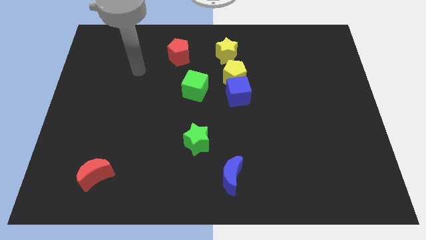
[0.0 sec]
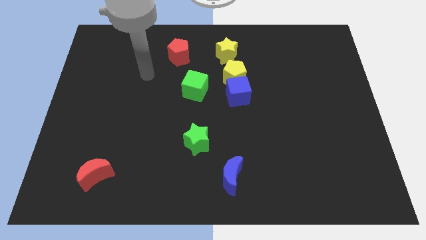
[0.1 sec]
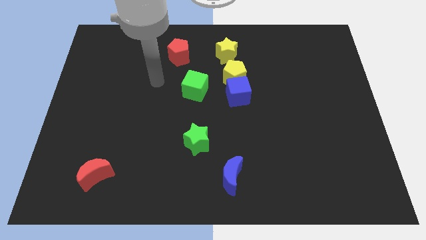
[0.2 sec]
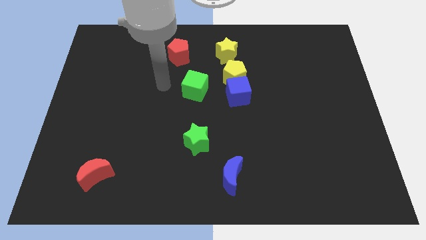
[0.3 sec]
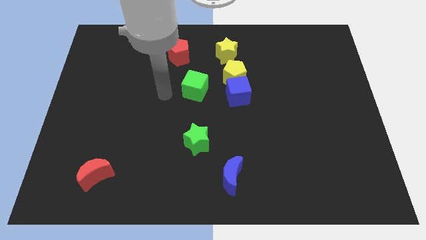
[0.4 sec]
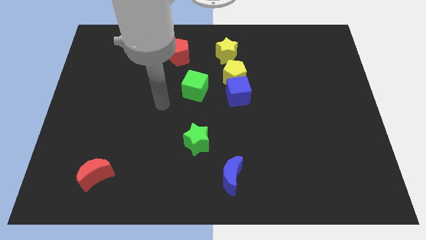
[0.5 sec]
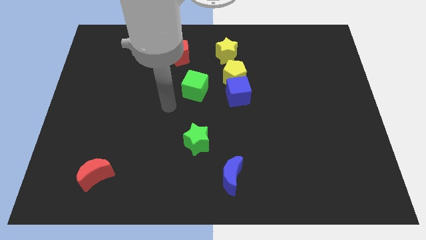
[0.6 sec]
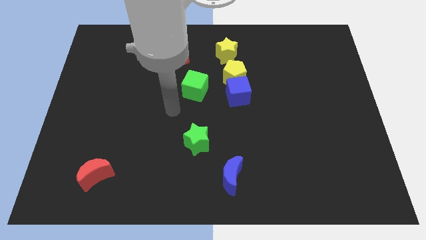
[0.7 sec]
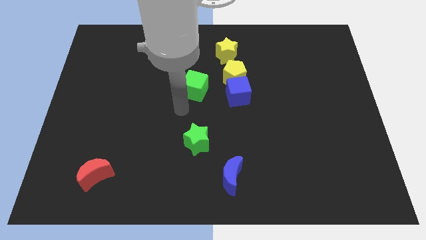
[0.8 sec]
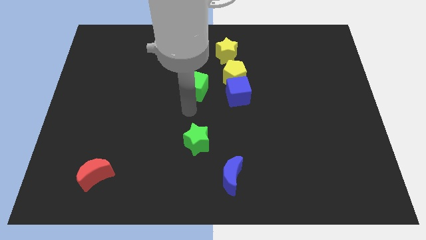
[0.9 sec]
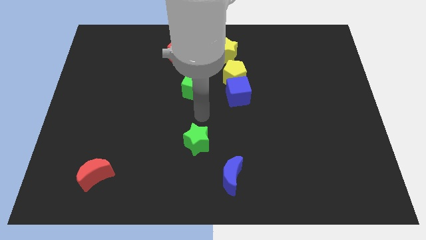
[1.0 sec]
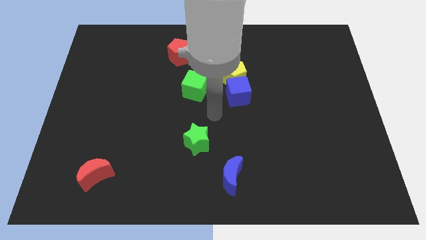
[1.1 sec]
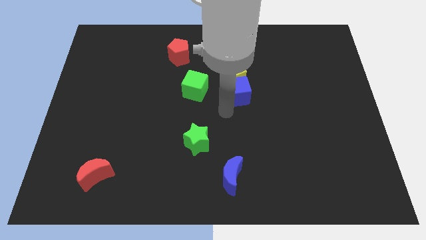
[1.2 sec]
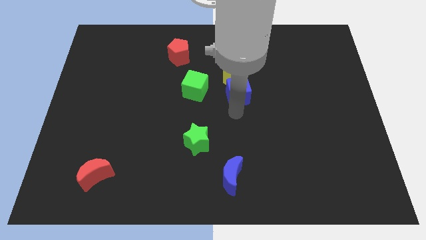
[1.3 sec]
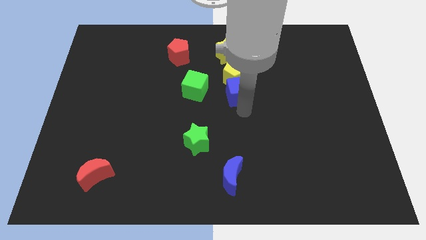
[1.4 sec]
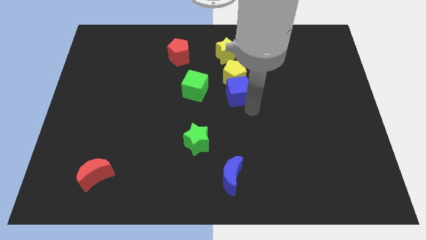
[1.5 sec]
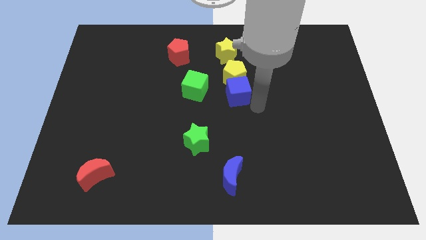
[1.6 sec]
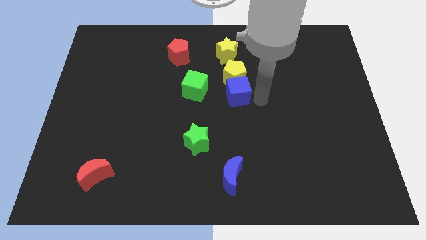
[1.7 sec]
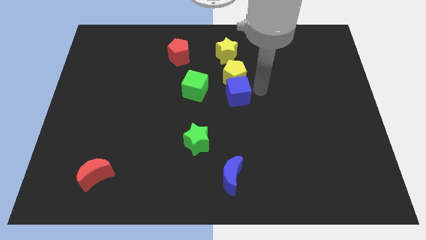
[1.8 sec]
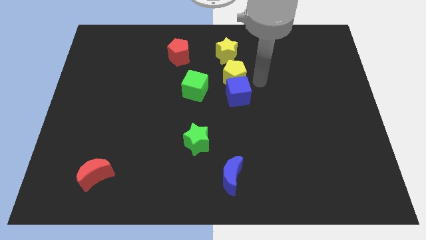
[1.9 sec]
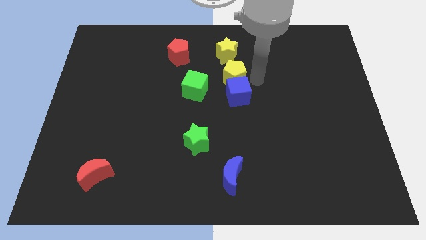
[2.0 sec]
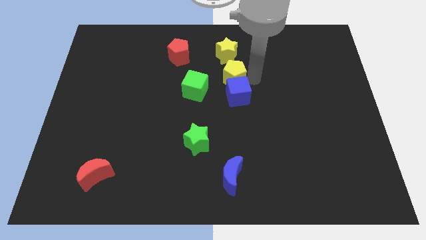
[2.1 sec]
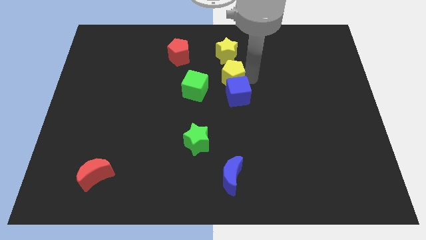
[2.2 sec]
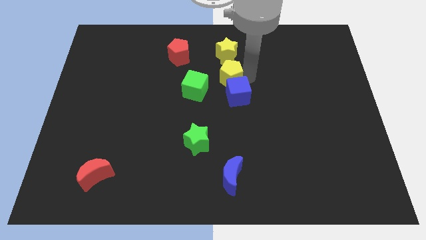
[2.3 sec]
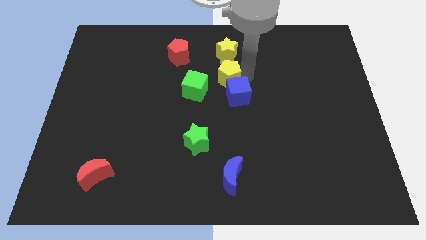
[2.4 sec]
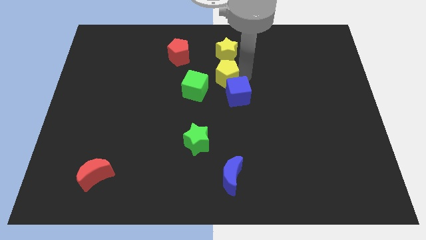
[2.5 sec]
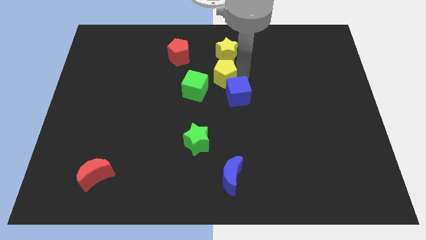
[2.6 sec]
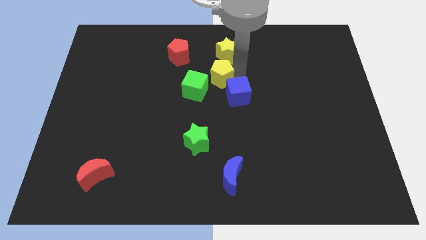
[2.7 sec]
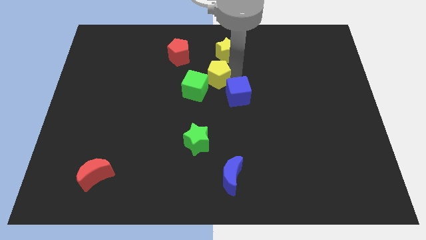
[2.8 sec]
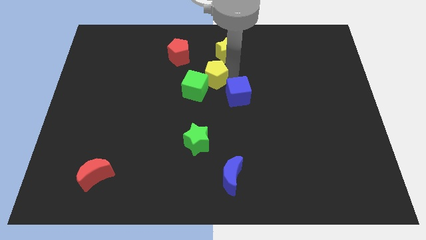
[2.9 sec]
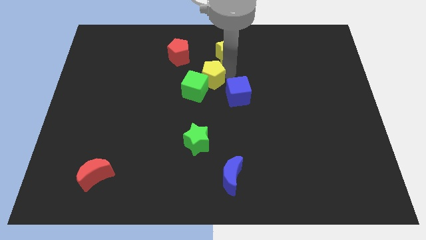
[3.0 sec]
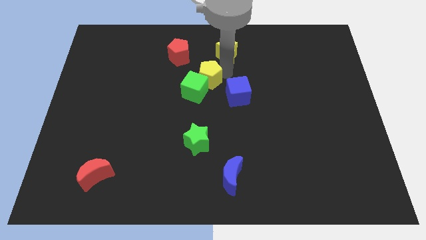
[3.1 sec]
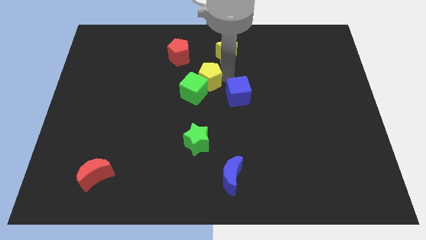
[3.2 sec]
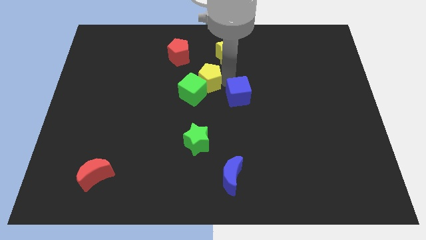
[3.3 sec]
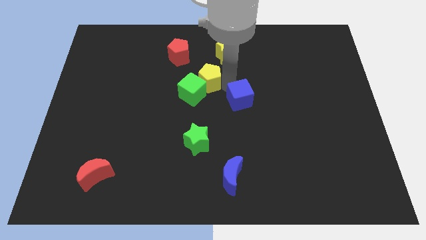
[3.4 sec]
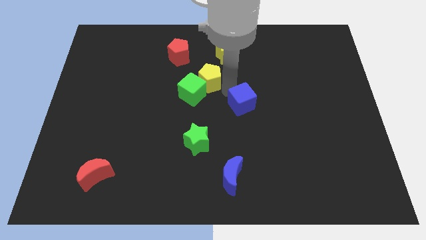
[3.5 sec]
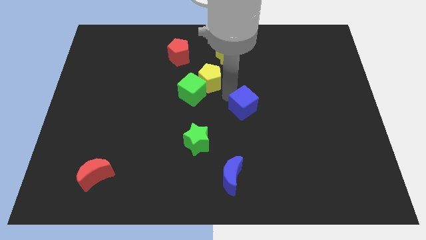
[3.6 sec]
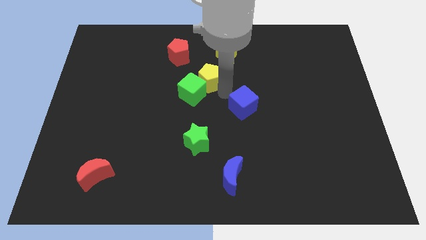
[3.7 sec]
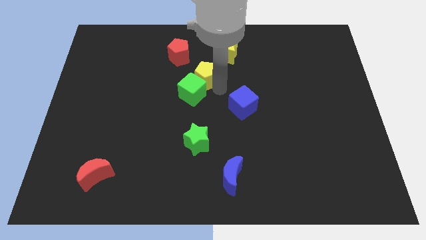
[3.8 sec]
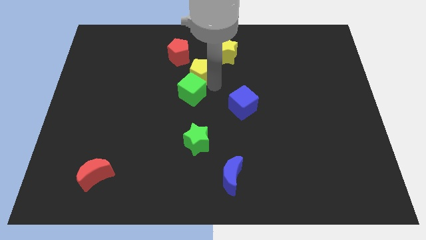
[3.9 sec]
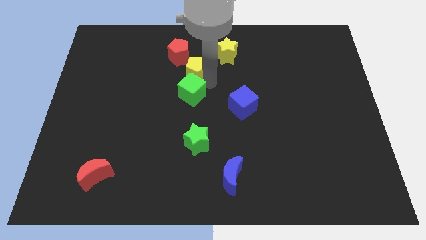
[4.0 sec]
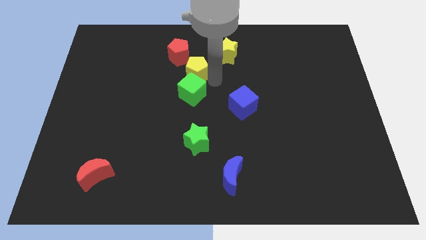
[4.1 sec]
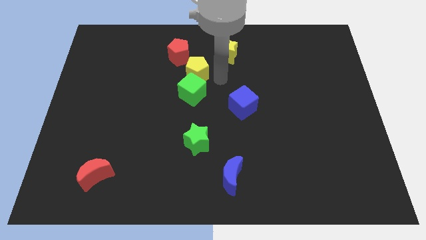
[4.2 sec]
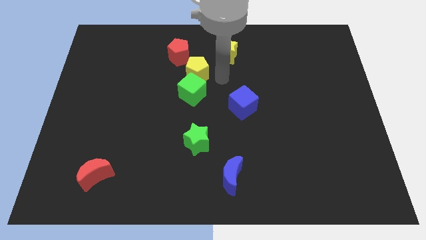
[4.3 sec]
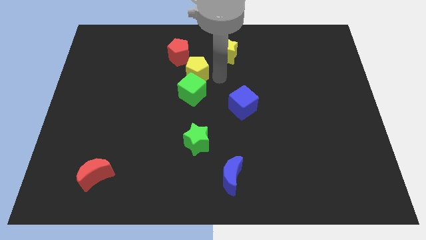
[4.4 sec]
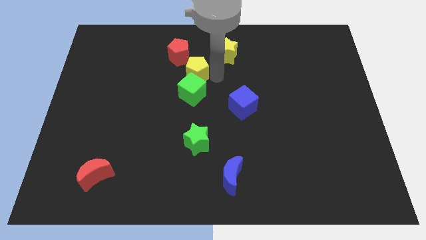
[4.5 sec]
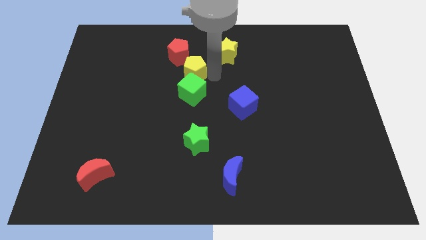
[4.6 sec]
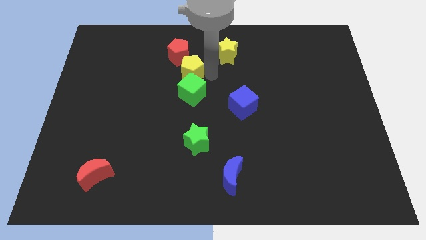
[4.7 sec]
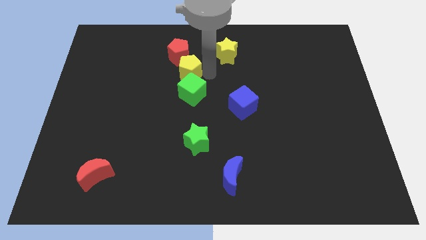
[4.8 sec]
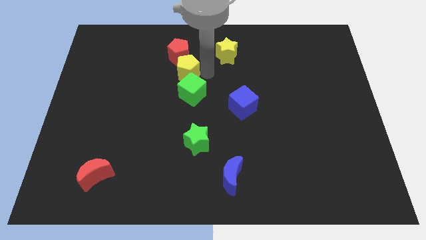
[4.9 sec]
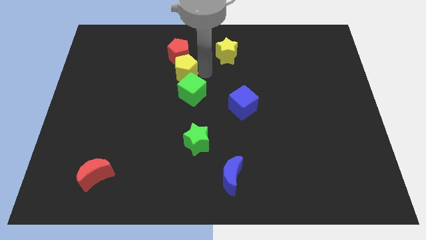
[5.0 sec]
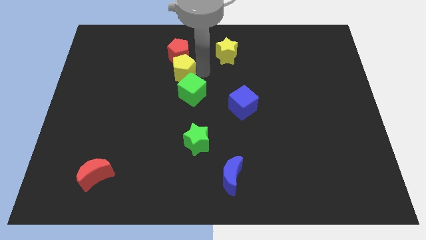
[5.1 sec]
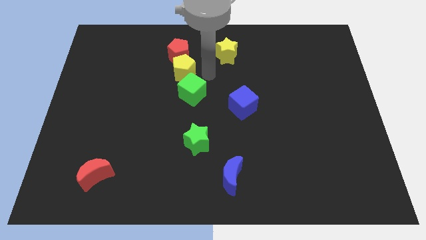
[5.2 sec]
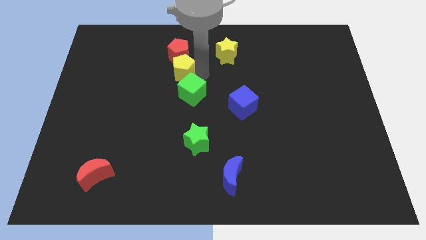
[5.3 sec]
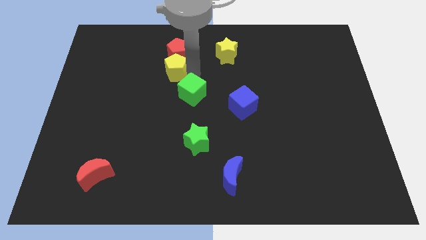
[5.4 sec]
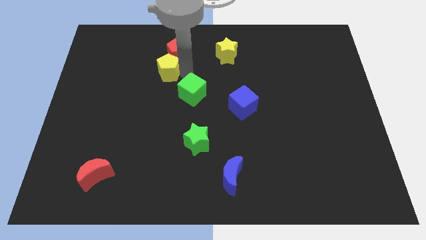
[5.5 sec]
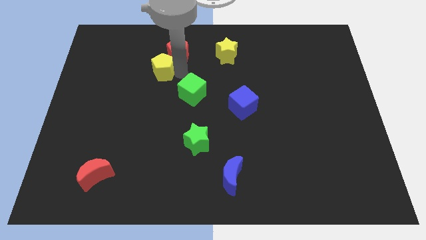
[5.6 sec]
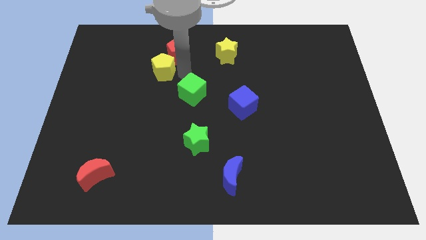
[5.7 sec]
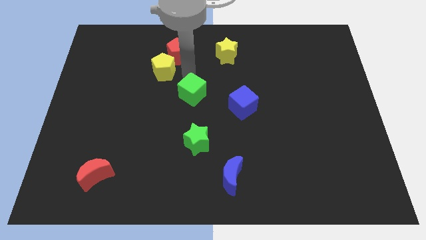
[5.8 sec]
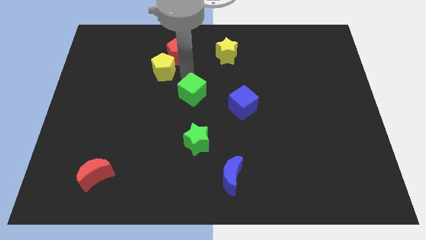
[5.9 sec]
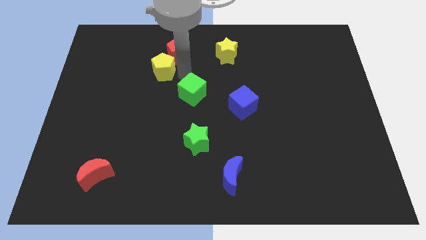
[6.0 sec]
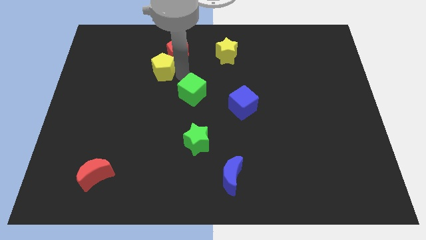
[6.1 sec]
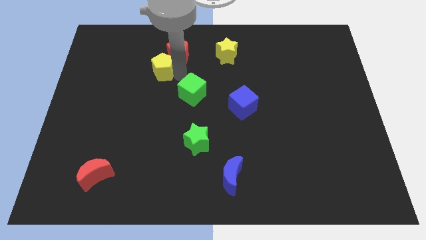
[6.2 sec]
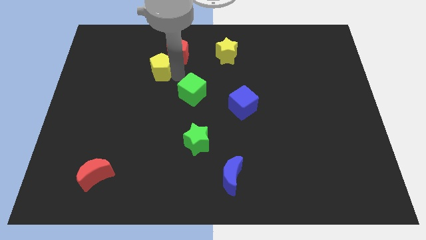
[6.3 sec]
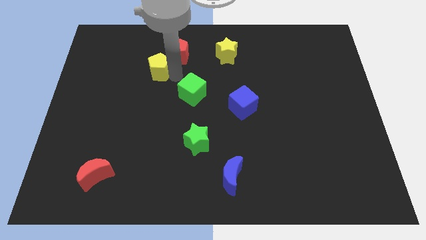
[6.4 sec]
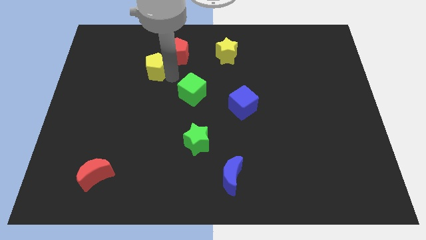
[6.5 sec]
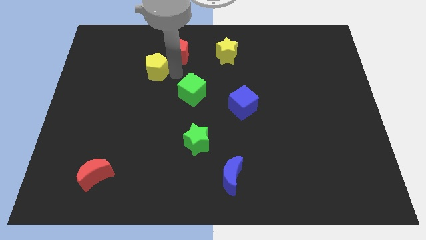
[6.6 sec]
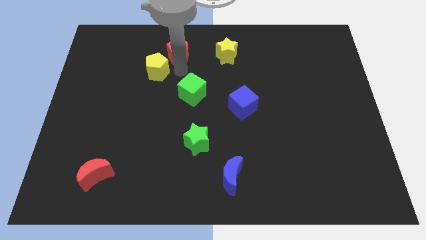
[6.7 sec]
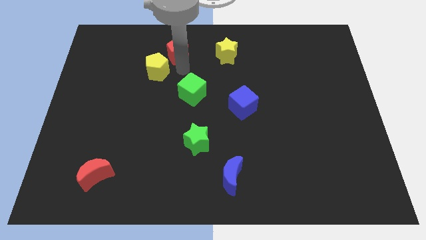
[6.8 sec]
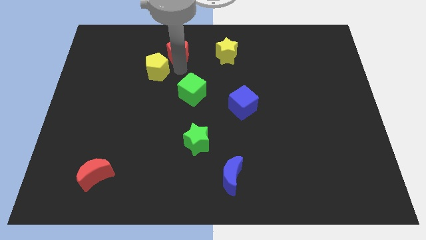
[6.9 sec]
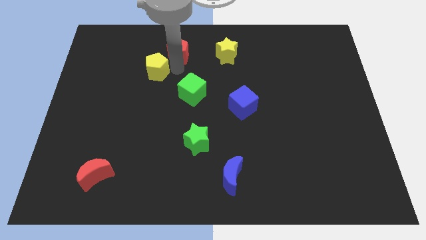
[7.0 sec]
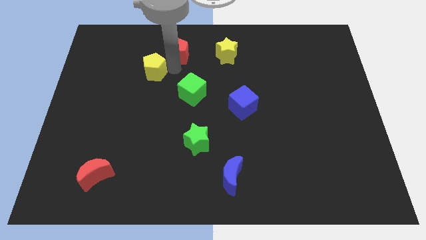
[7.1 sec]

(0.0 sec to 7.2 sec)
slide the yellow pentagon to the left

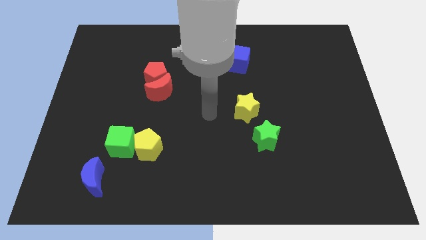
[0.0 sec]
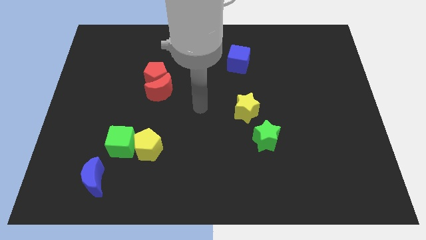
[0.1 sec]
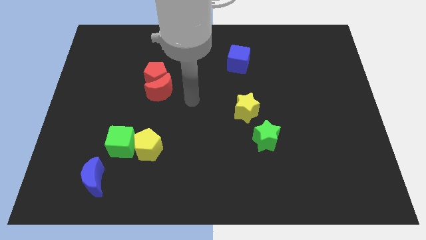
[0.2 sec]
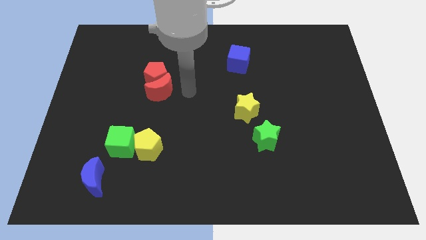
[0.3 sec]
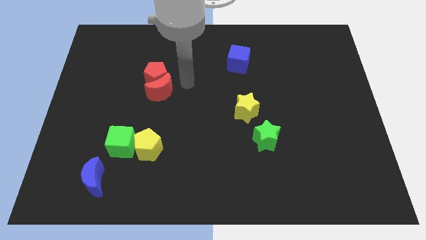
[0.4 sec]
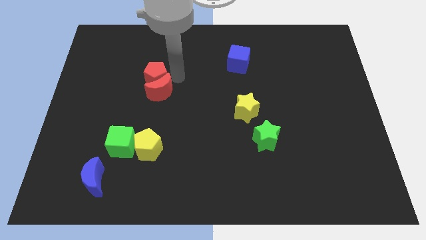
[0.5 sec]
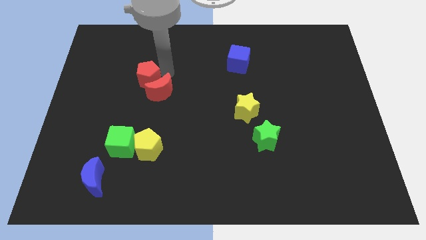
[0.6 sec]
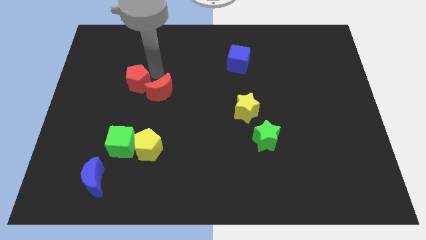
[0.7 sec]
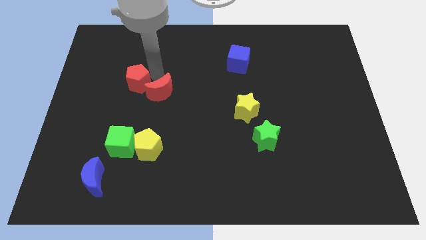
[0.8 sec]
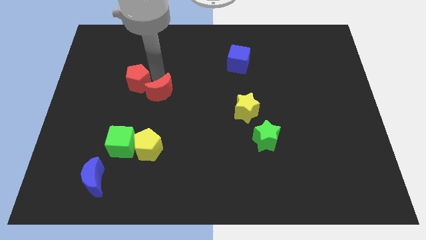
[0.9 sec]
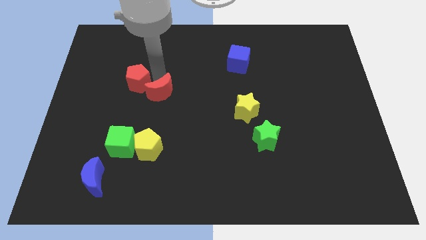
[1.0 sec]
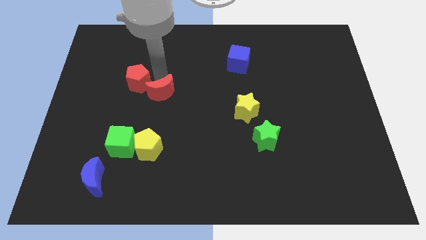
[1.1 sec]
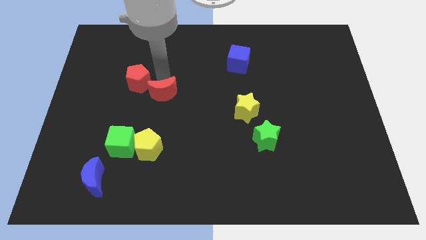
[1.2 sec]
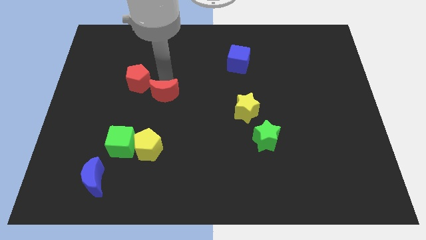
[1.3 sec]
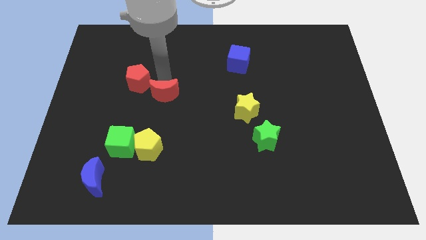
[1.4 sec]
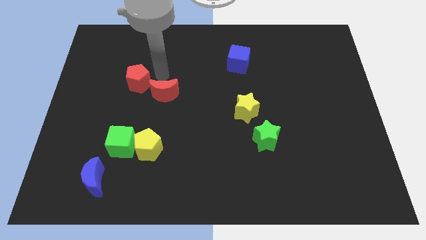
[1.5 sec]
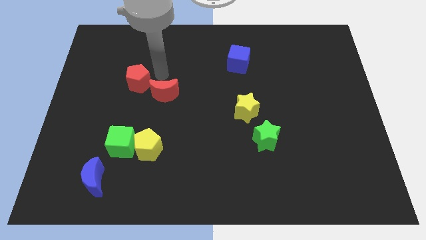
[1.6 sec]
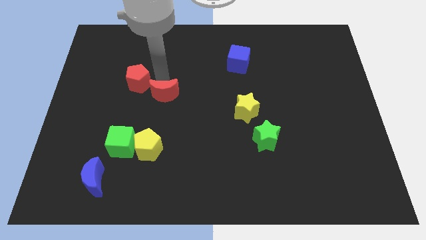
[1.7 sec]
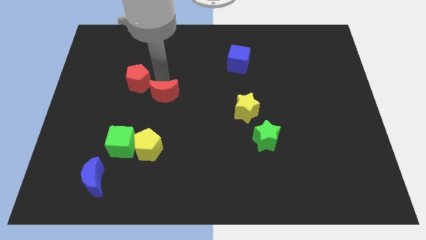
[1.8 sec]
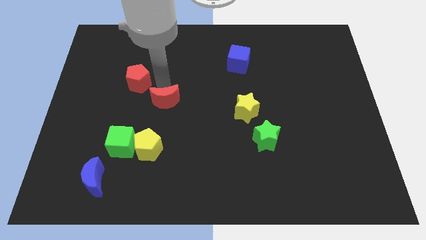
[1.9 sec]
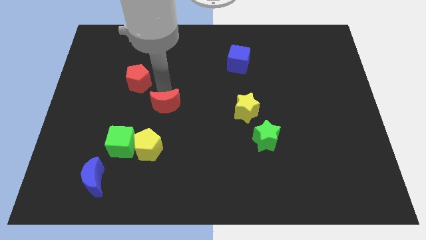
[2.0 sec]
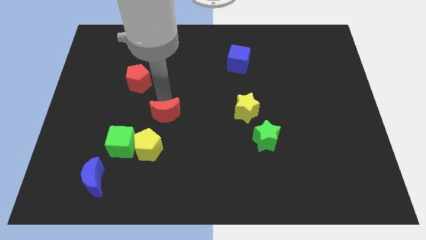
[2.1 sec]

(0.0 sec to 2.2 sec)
slide the red moon down slightly
